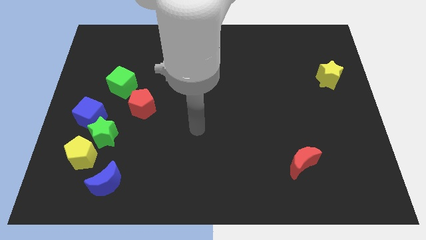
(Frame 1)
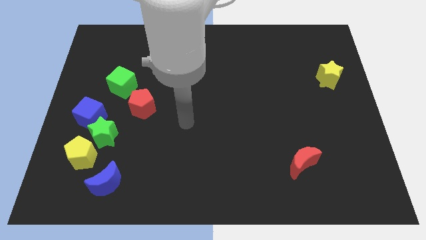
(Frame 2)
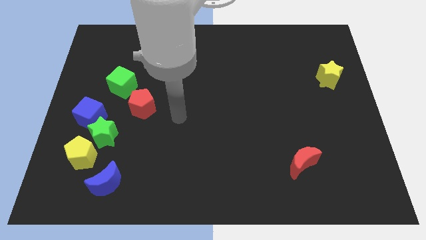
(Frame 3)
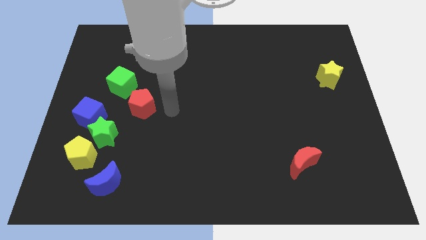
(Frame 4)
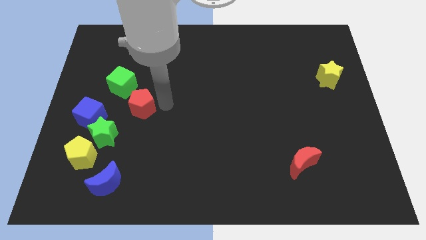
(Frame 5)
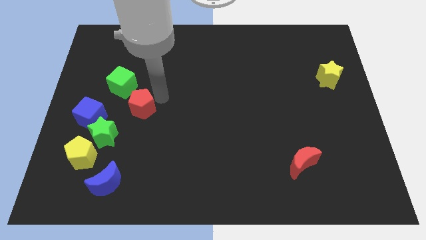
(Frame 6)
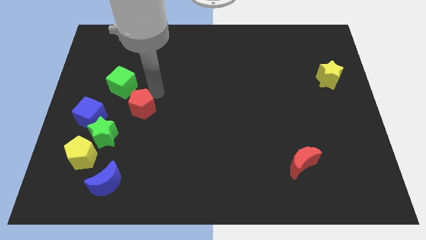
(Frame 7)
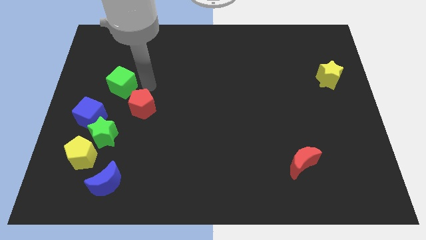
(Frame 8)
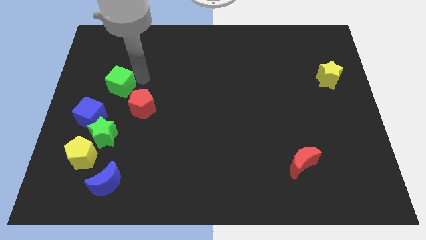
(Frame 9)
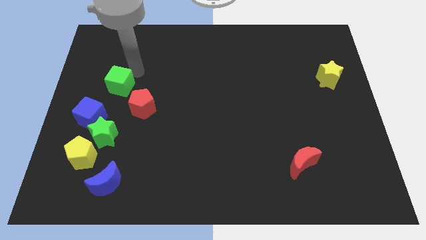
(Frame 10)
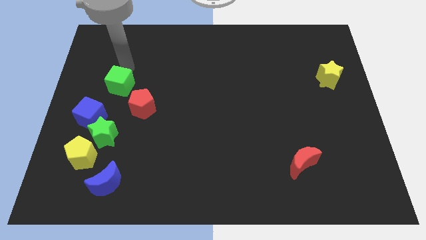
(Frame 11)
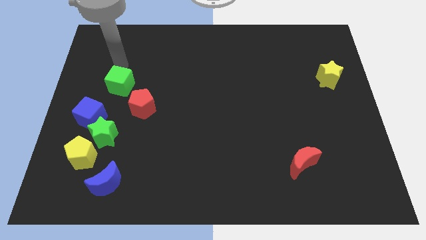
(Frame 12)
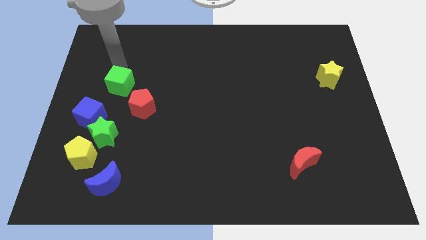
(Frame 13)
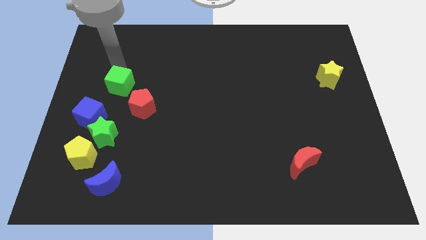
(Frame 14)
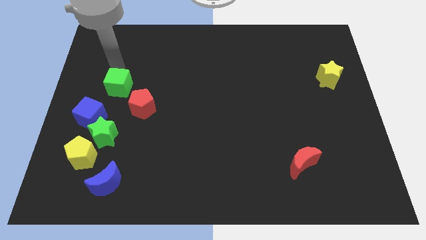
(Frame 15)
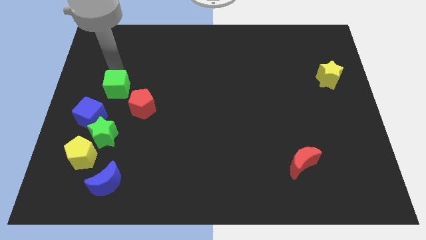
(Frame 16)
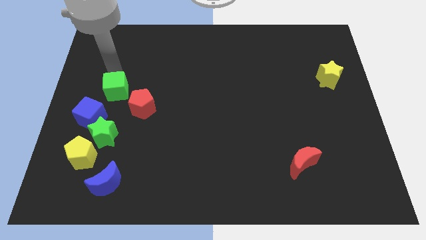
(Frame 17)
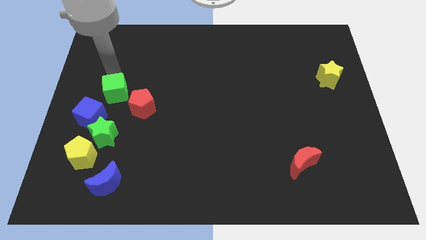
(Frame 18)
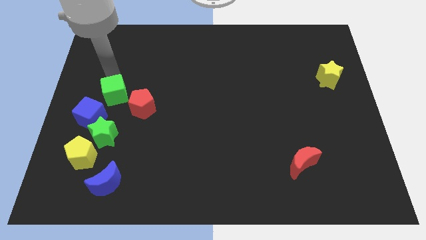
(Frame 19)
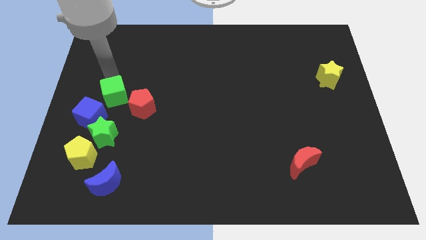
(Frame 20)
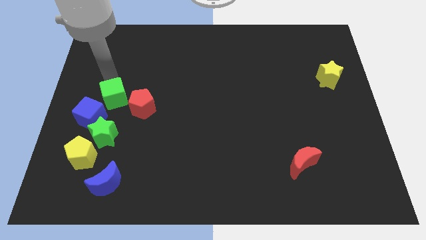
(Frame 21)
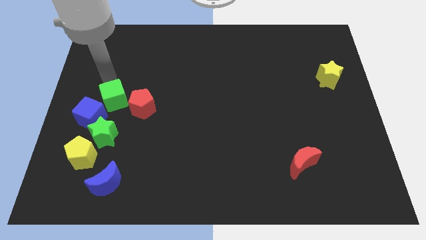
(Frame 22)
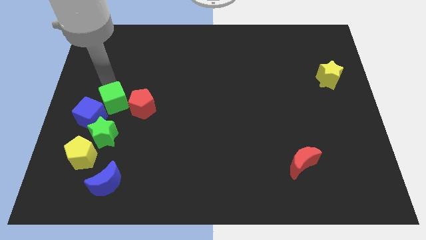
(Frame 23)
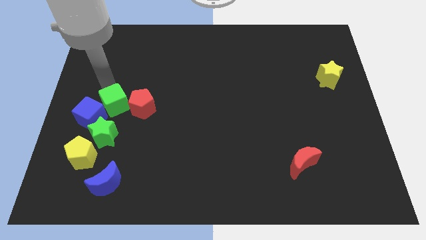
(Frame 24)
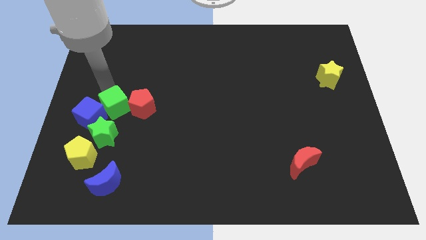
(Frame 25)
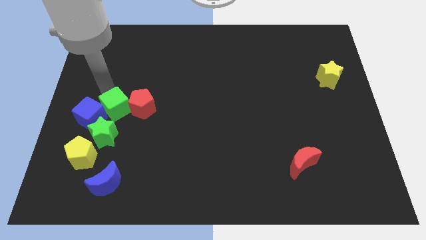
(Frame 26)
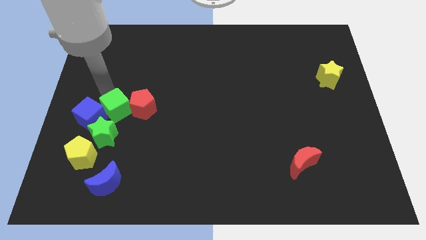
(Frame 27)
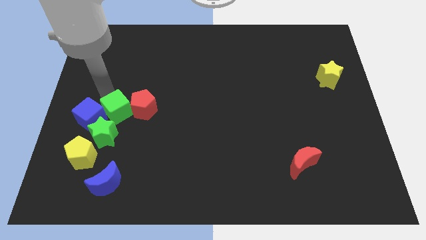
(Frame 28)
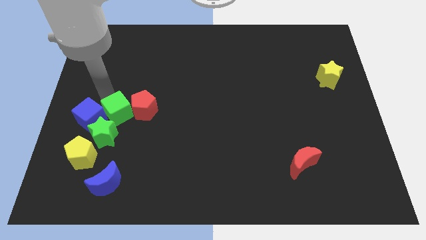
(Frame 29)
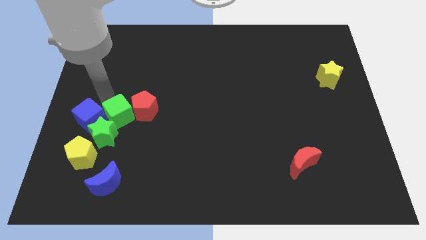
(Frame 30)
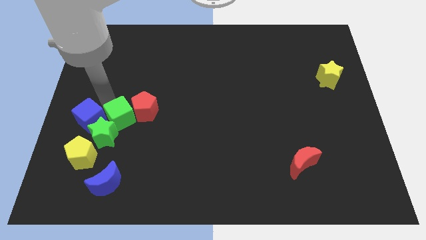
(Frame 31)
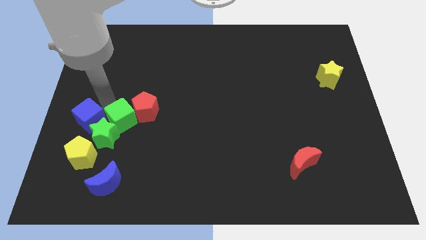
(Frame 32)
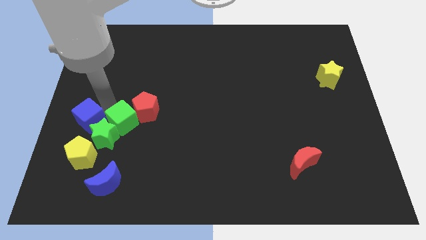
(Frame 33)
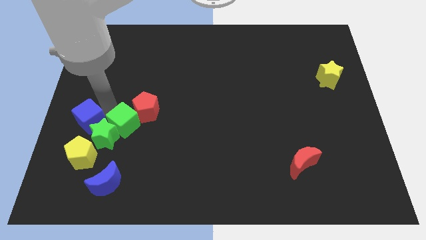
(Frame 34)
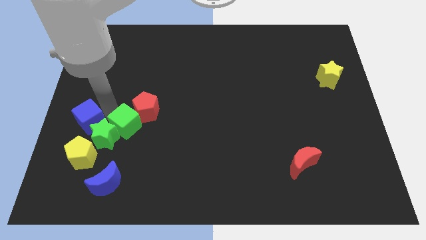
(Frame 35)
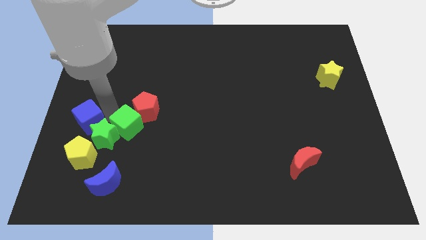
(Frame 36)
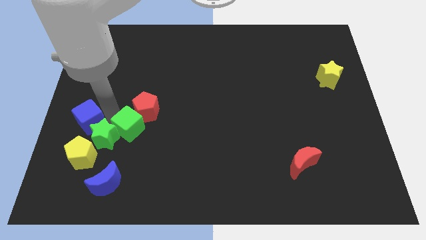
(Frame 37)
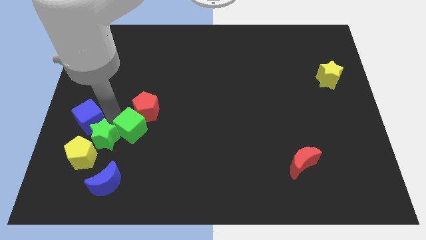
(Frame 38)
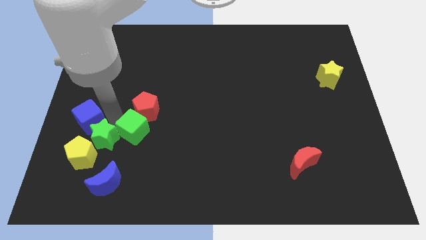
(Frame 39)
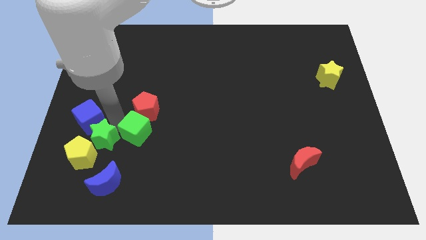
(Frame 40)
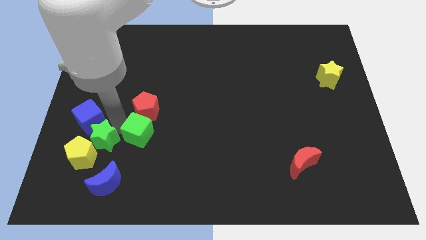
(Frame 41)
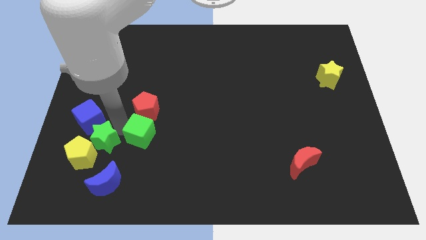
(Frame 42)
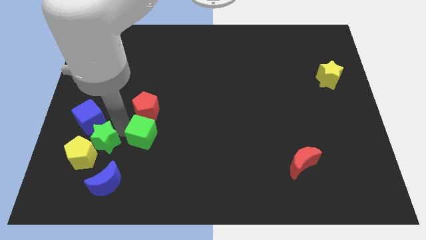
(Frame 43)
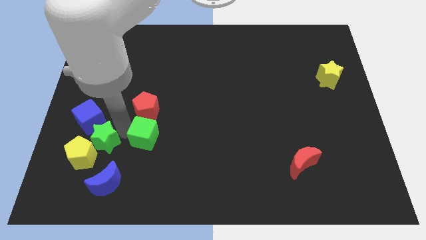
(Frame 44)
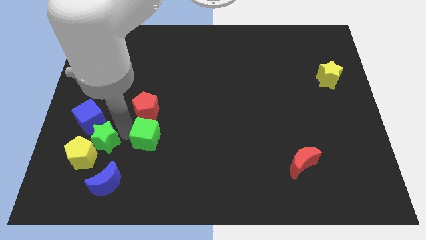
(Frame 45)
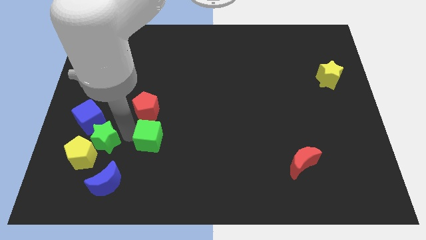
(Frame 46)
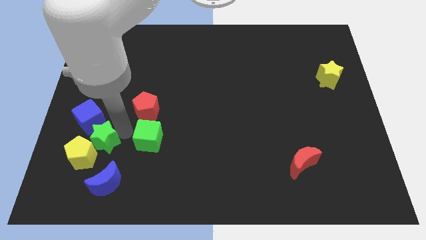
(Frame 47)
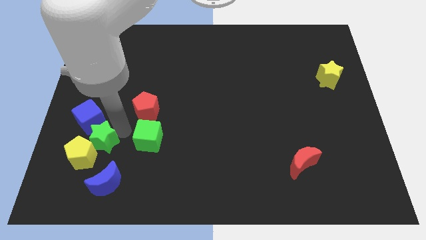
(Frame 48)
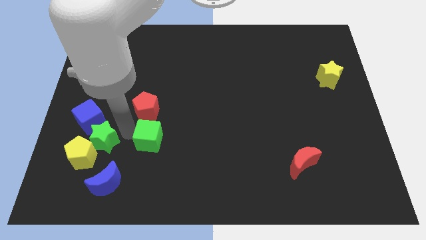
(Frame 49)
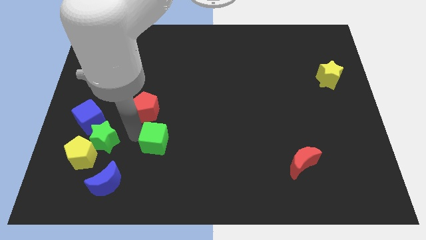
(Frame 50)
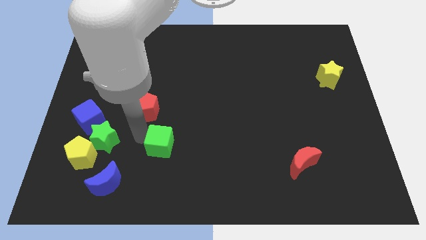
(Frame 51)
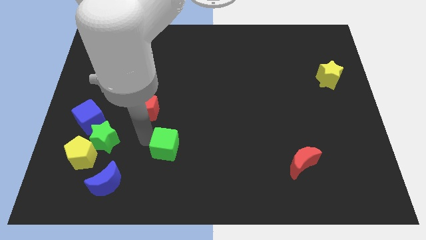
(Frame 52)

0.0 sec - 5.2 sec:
push the green cube down and right diagonally

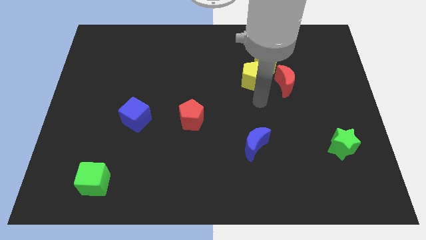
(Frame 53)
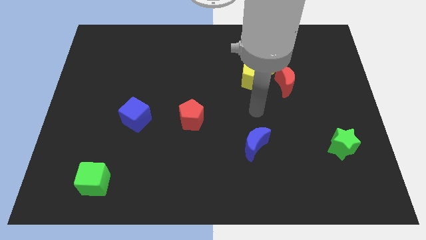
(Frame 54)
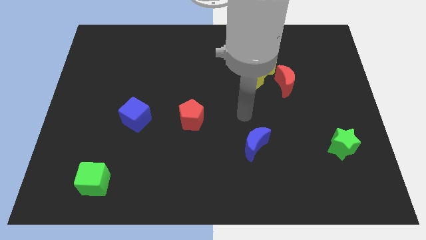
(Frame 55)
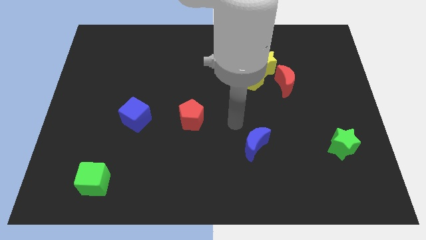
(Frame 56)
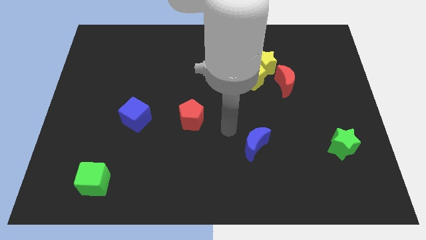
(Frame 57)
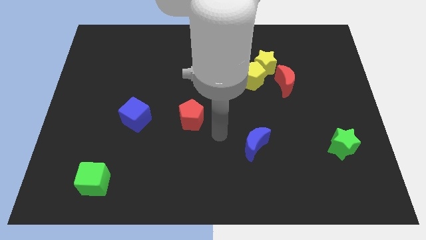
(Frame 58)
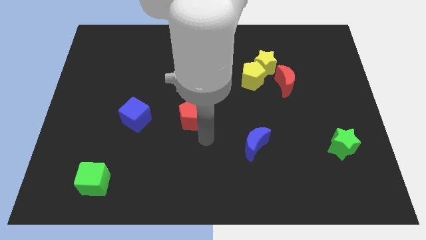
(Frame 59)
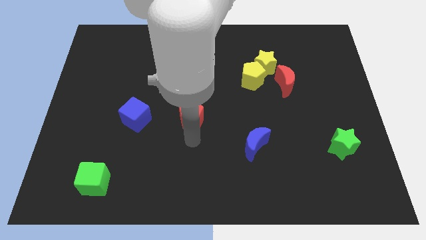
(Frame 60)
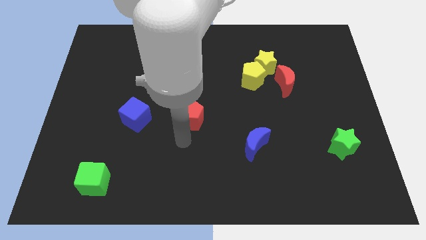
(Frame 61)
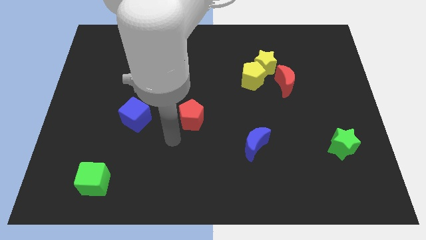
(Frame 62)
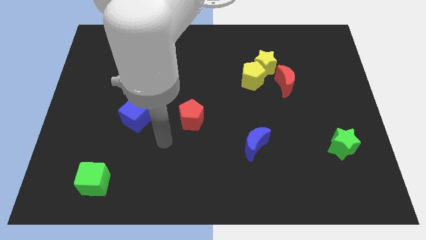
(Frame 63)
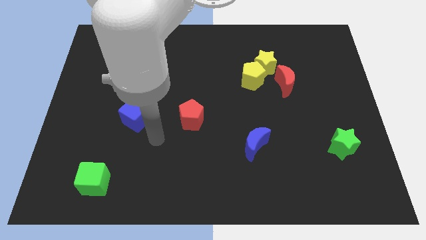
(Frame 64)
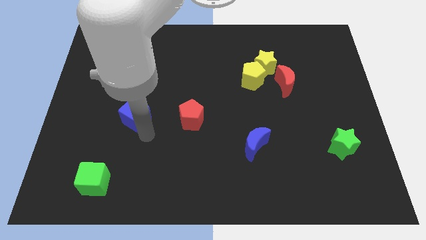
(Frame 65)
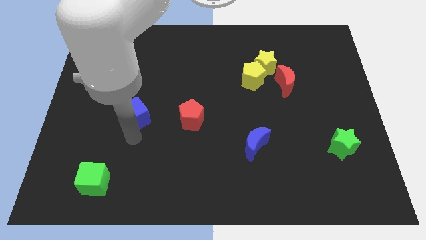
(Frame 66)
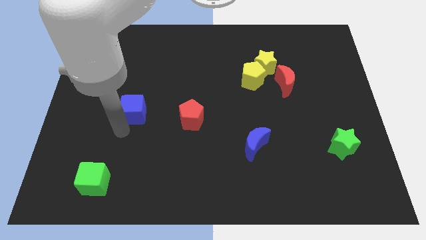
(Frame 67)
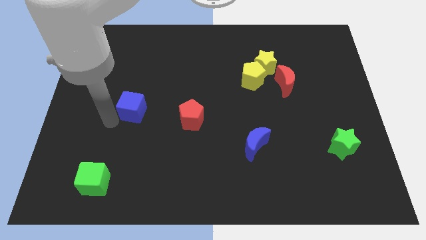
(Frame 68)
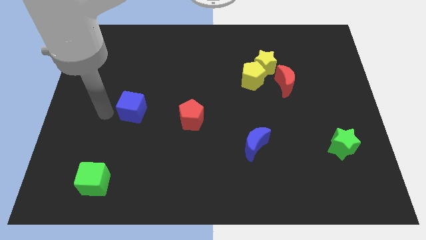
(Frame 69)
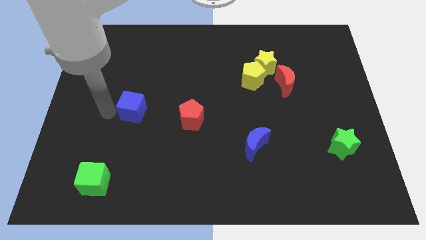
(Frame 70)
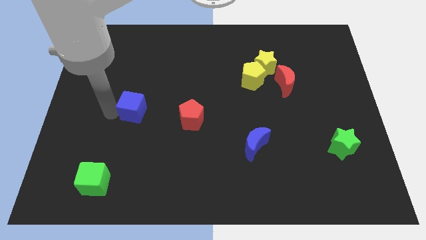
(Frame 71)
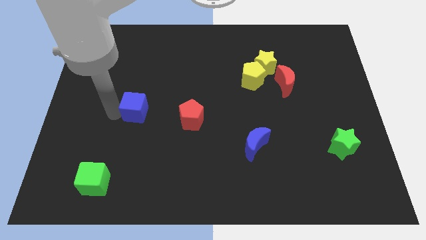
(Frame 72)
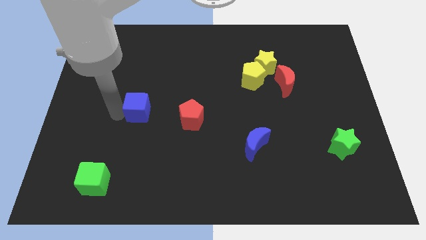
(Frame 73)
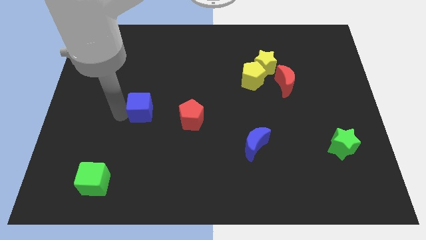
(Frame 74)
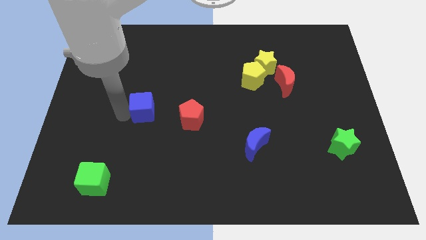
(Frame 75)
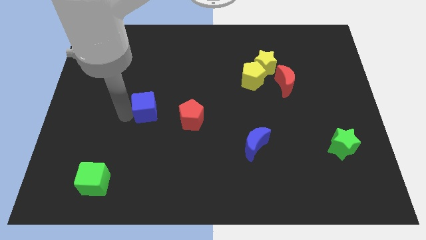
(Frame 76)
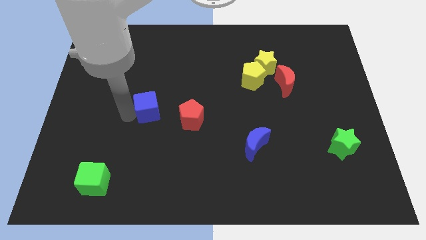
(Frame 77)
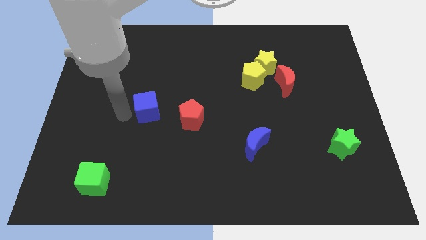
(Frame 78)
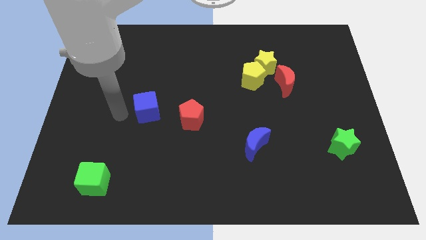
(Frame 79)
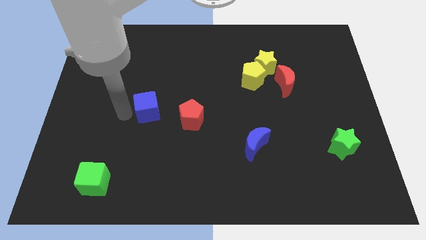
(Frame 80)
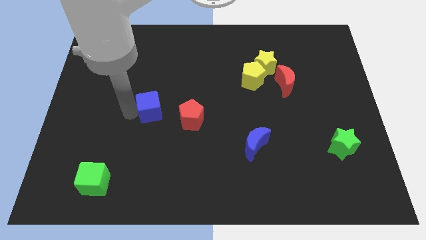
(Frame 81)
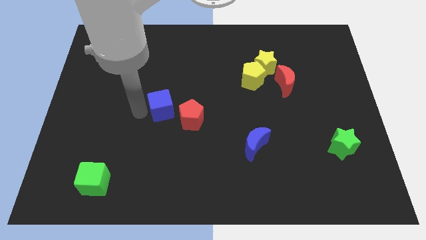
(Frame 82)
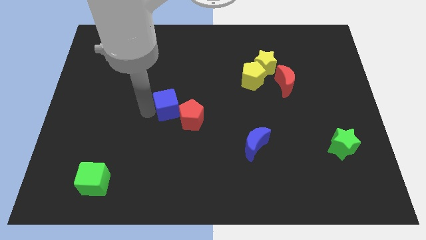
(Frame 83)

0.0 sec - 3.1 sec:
slightly push the blue cube right
